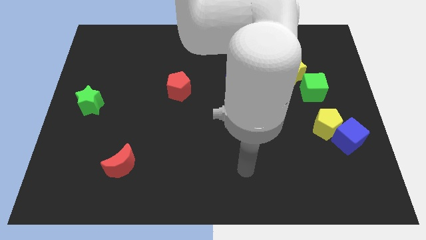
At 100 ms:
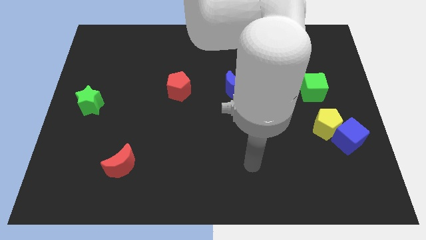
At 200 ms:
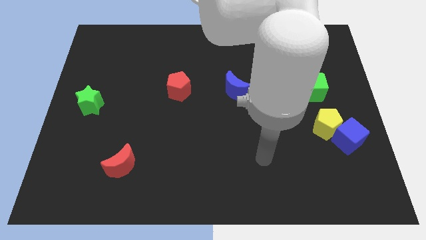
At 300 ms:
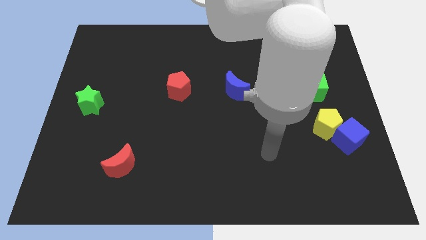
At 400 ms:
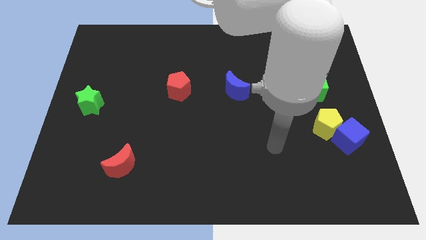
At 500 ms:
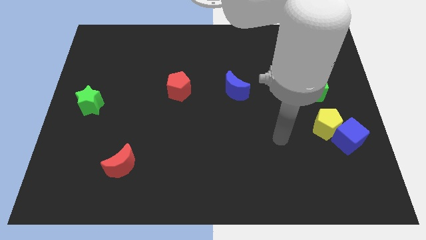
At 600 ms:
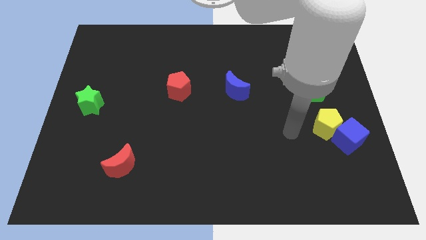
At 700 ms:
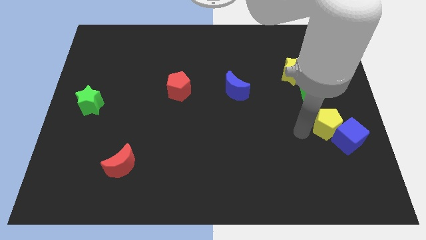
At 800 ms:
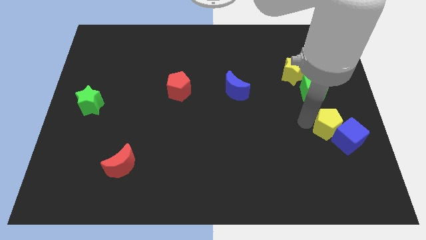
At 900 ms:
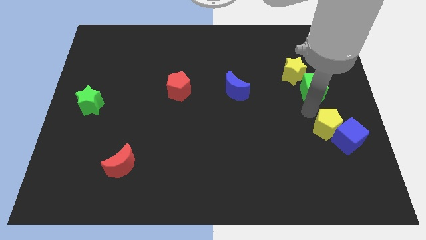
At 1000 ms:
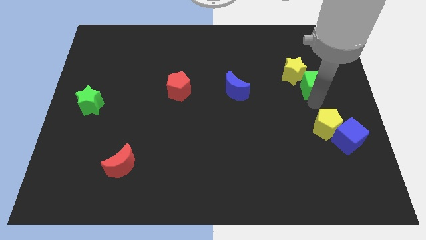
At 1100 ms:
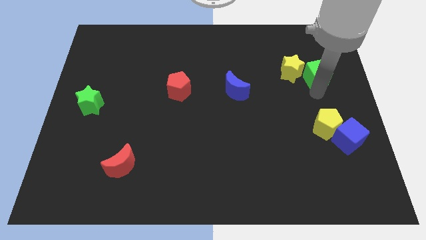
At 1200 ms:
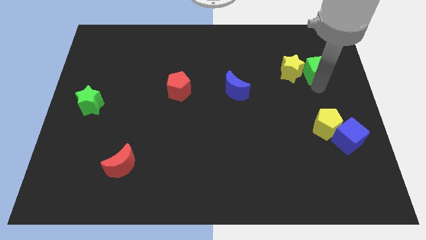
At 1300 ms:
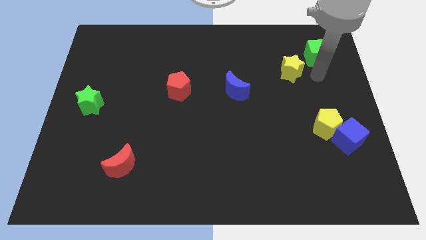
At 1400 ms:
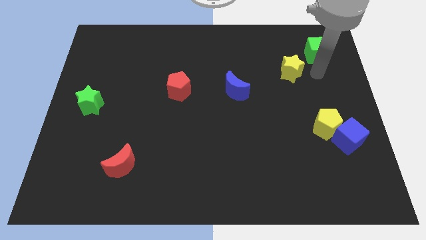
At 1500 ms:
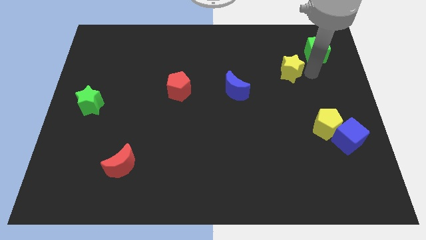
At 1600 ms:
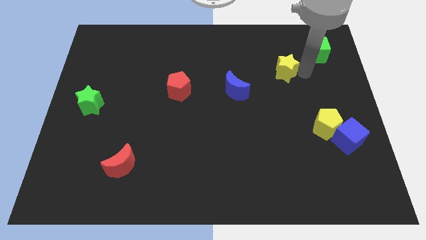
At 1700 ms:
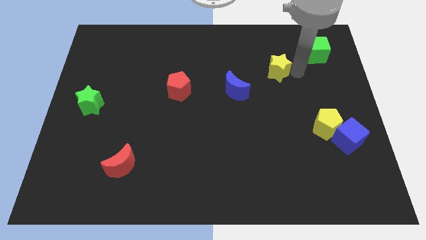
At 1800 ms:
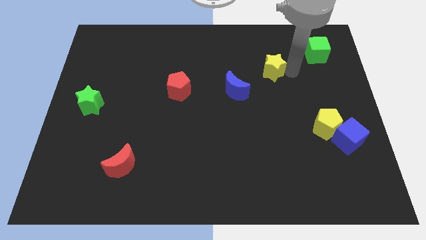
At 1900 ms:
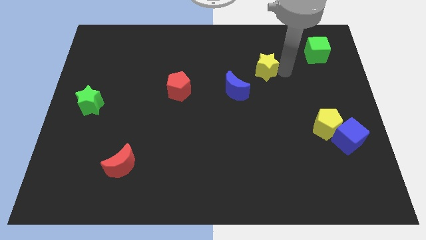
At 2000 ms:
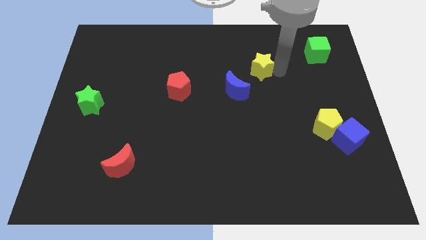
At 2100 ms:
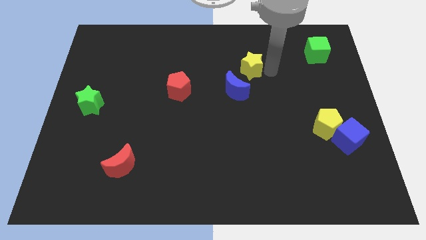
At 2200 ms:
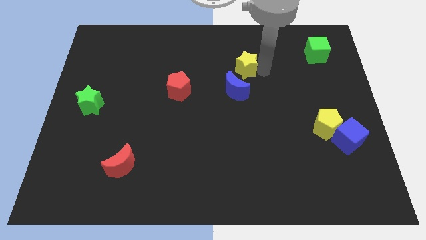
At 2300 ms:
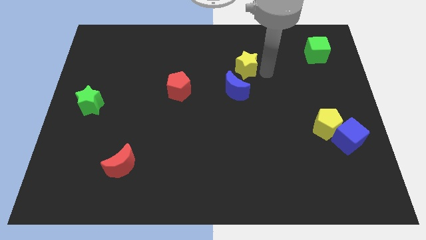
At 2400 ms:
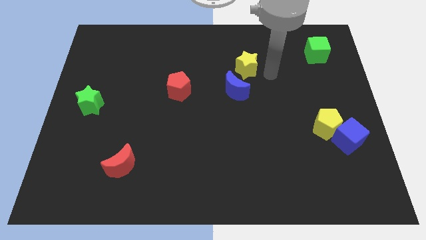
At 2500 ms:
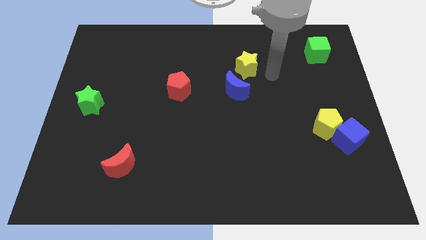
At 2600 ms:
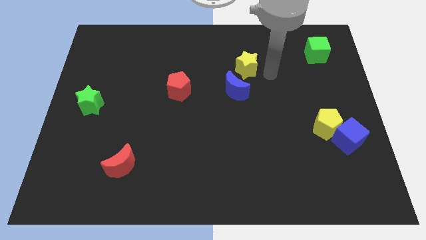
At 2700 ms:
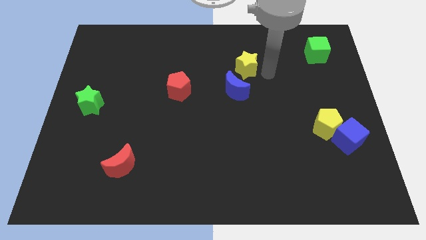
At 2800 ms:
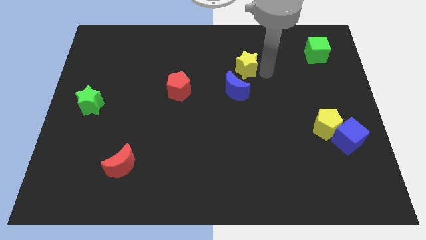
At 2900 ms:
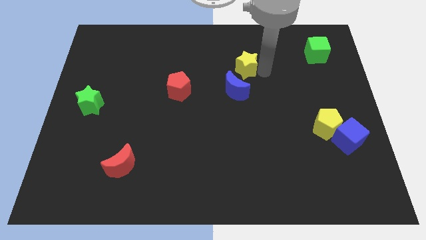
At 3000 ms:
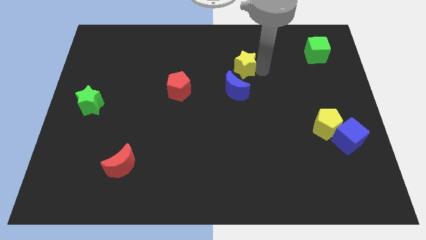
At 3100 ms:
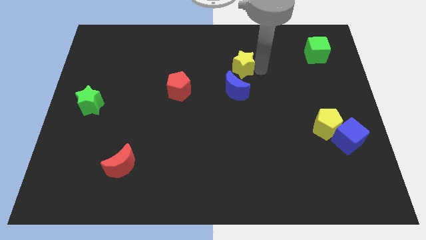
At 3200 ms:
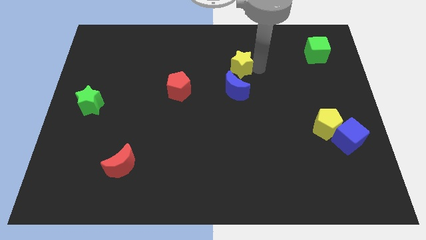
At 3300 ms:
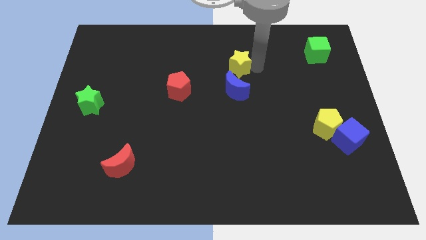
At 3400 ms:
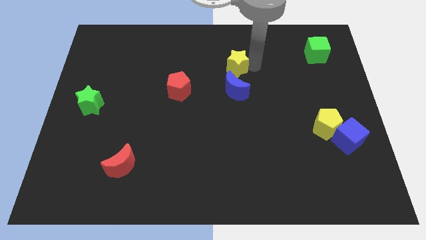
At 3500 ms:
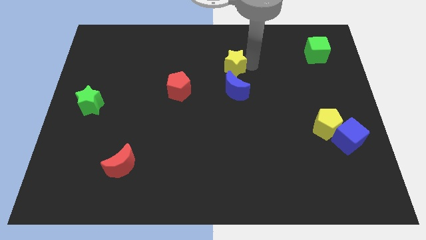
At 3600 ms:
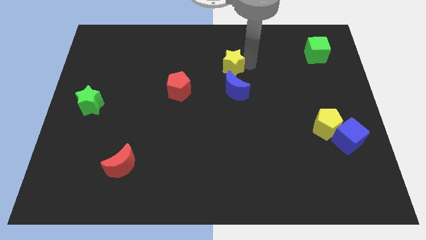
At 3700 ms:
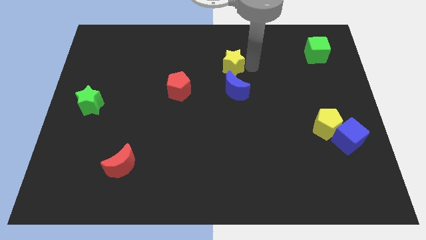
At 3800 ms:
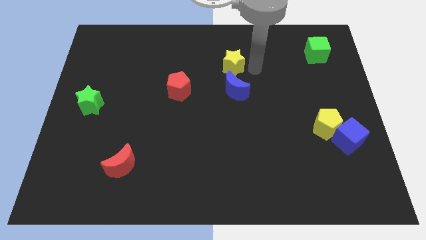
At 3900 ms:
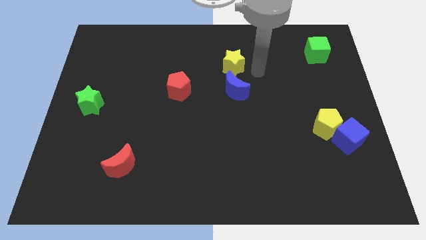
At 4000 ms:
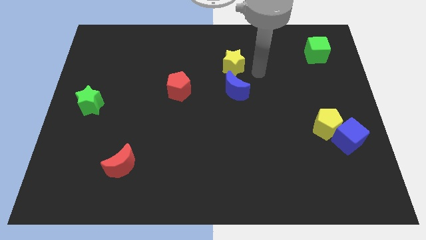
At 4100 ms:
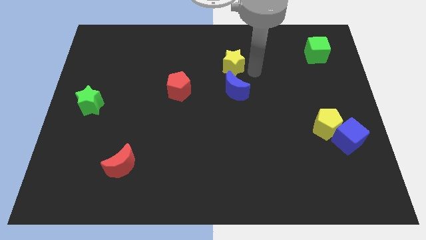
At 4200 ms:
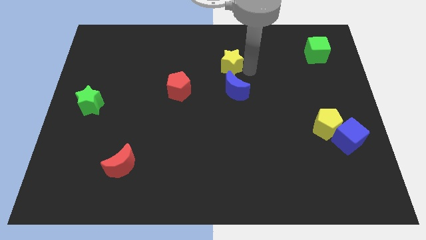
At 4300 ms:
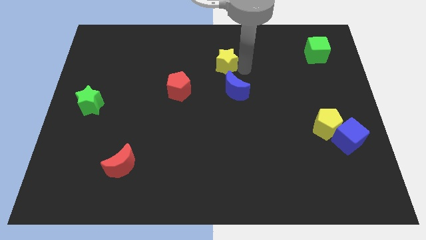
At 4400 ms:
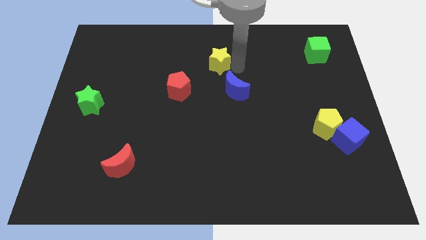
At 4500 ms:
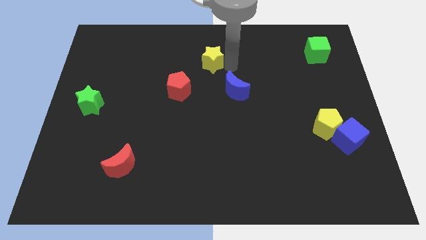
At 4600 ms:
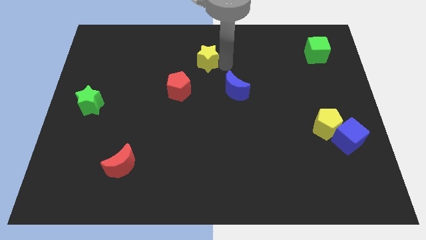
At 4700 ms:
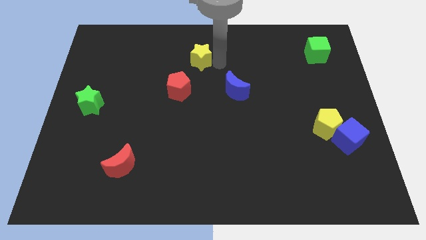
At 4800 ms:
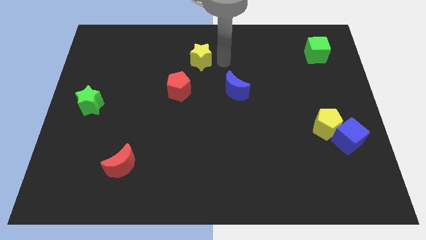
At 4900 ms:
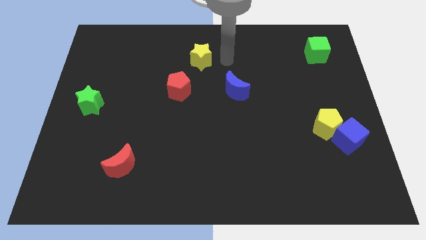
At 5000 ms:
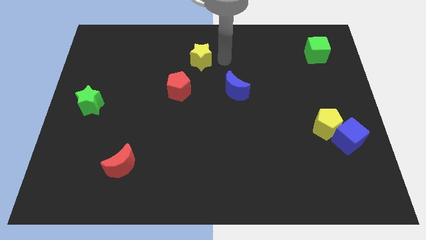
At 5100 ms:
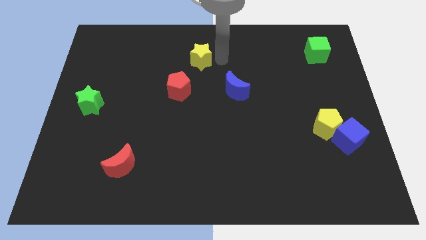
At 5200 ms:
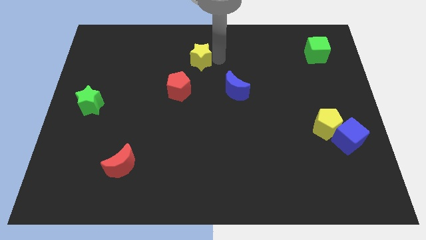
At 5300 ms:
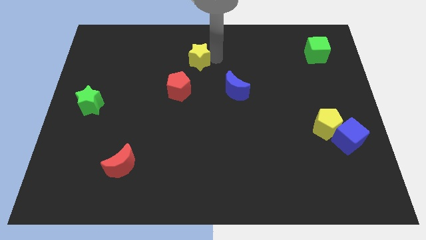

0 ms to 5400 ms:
push the yellow star to the top of the red pentagon

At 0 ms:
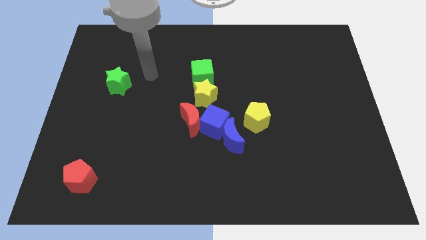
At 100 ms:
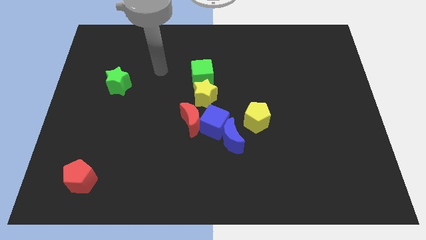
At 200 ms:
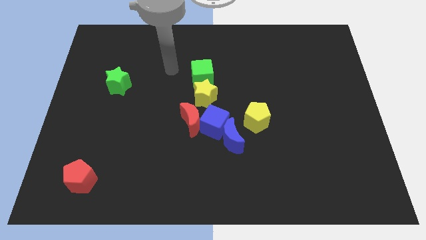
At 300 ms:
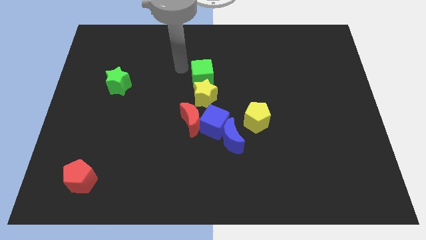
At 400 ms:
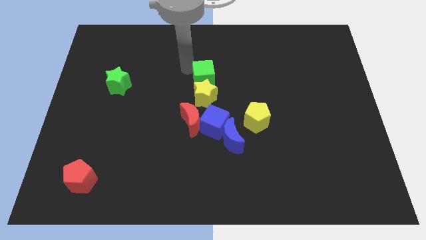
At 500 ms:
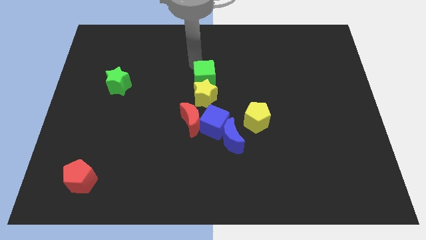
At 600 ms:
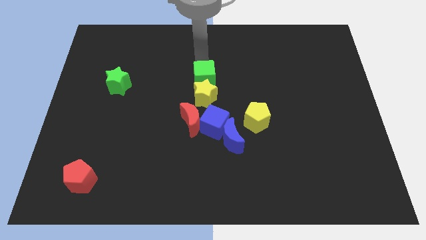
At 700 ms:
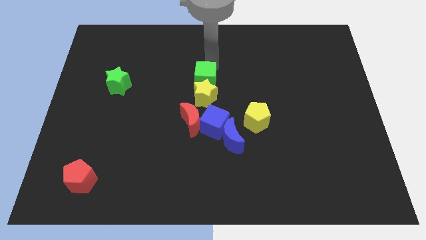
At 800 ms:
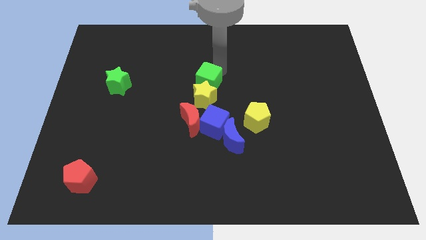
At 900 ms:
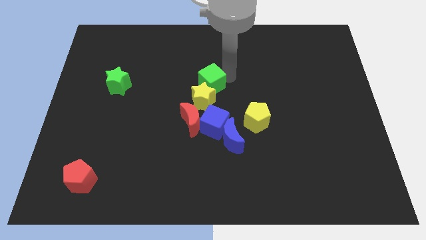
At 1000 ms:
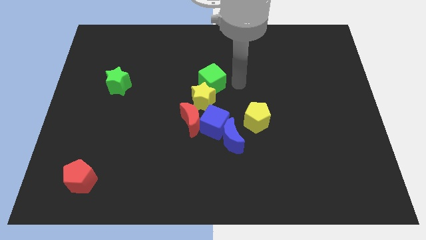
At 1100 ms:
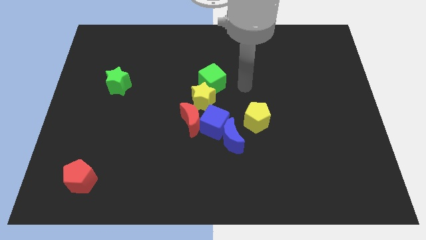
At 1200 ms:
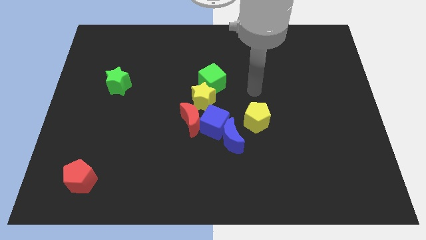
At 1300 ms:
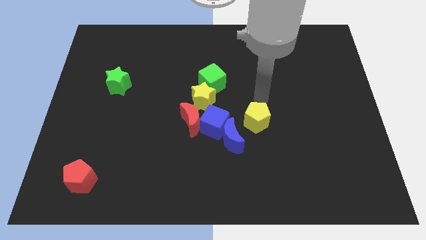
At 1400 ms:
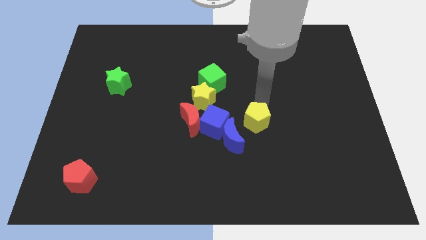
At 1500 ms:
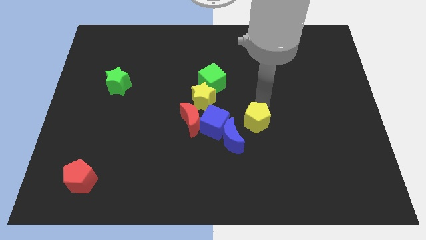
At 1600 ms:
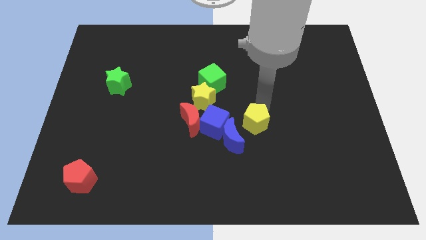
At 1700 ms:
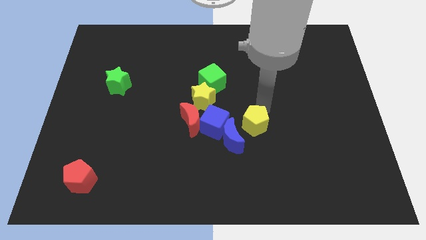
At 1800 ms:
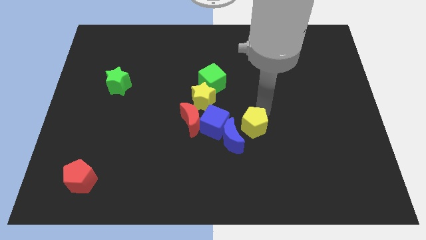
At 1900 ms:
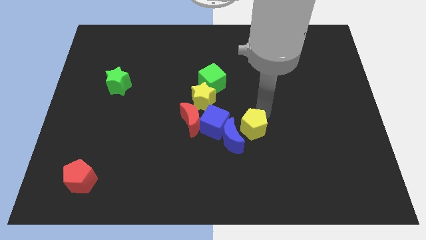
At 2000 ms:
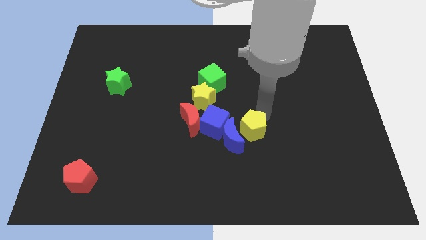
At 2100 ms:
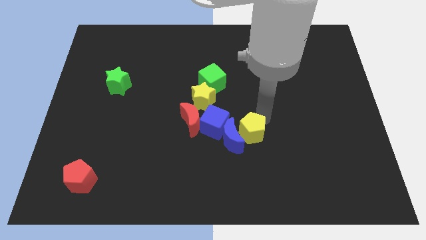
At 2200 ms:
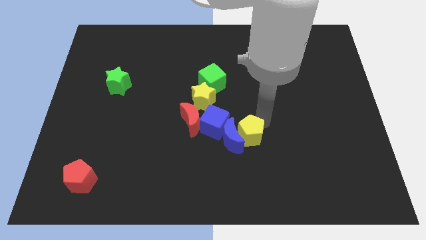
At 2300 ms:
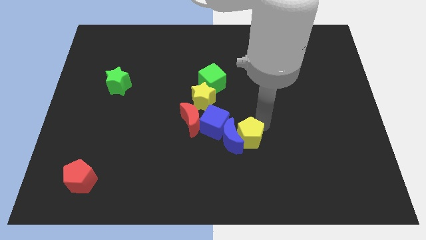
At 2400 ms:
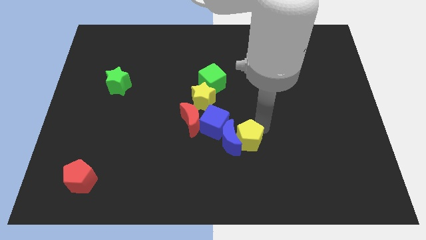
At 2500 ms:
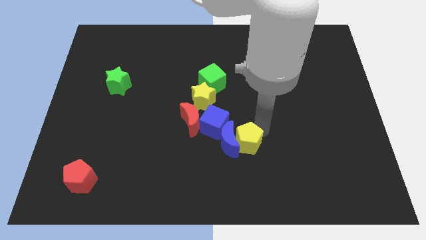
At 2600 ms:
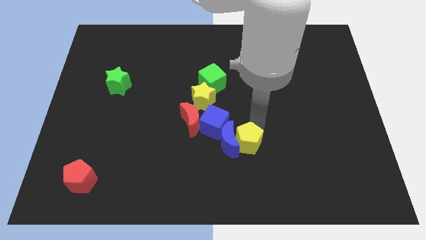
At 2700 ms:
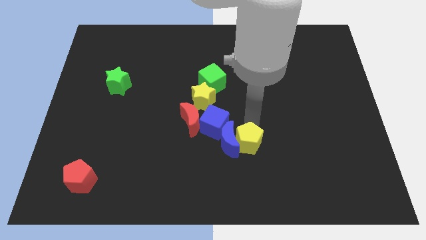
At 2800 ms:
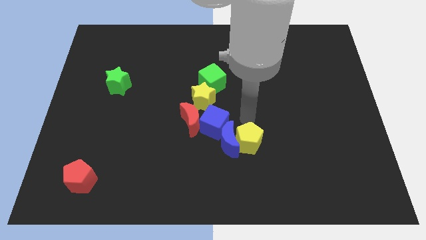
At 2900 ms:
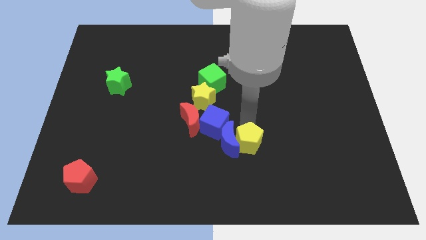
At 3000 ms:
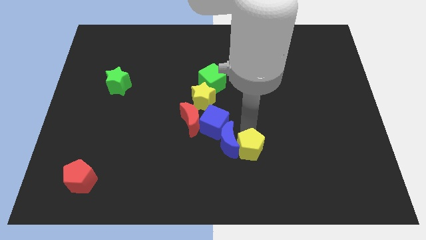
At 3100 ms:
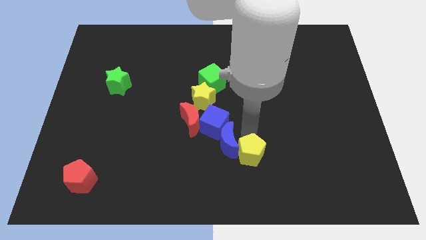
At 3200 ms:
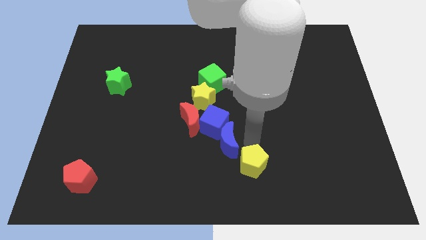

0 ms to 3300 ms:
slide the yellow pentagon to the bottom of the blue moon
